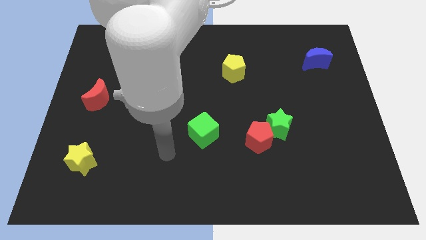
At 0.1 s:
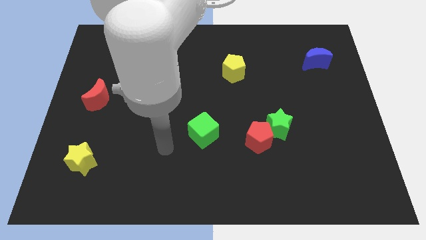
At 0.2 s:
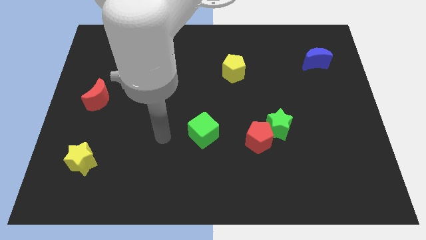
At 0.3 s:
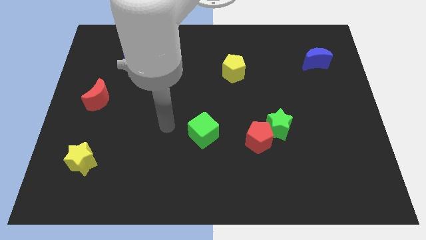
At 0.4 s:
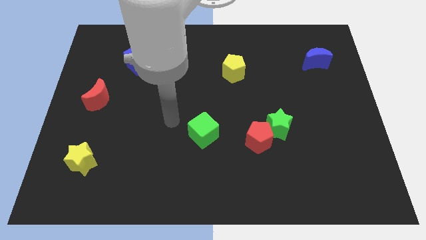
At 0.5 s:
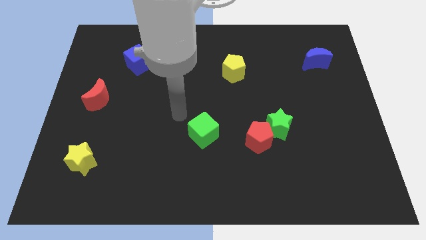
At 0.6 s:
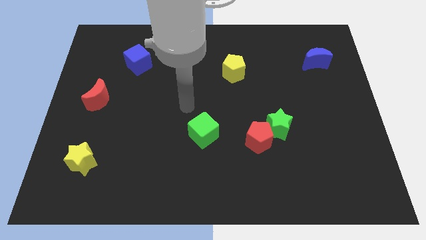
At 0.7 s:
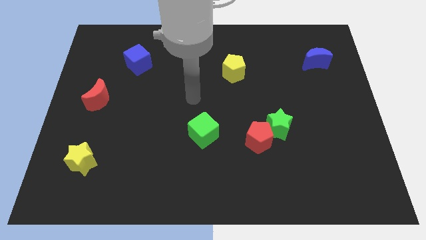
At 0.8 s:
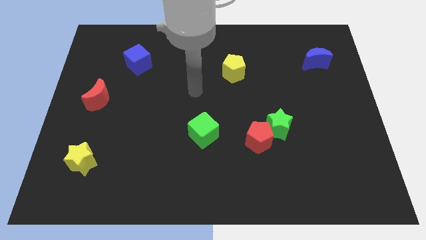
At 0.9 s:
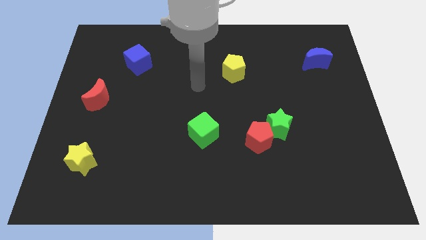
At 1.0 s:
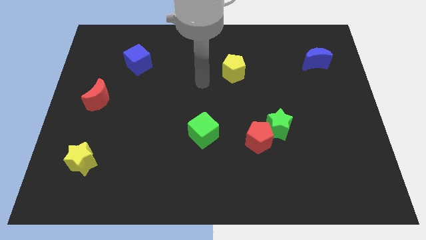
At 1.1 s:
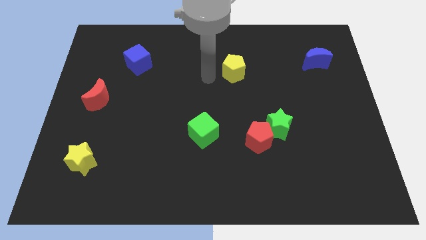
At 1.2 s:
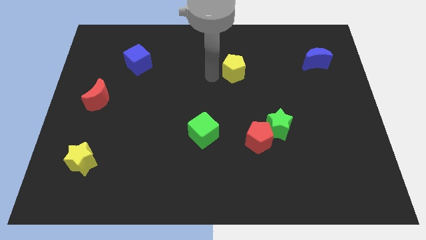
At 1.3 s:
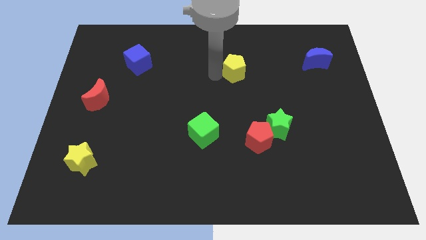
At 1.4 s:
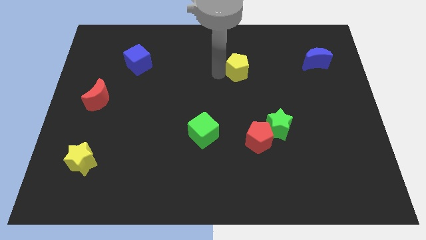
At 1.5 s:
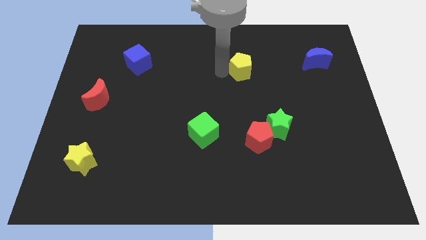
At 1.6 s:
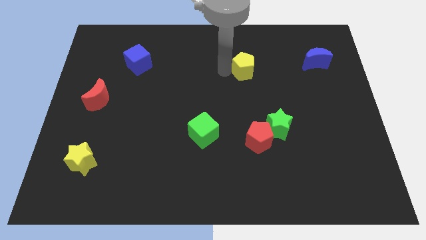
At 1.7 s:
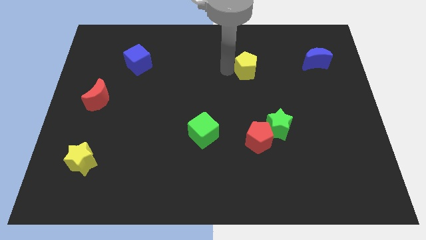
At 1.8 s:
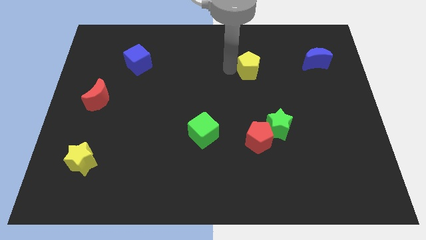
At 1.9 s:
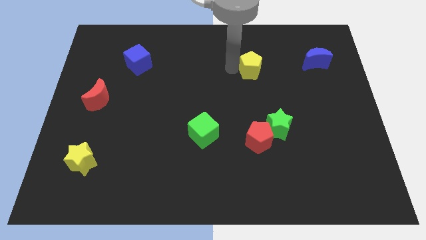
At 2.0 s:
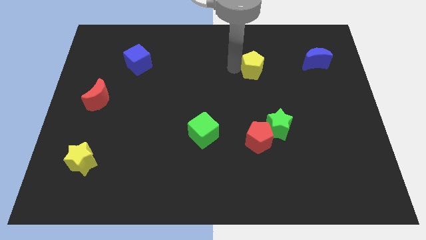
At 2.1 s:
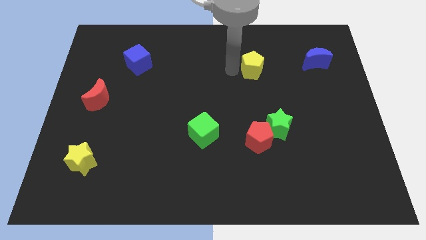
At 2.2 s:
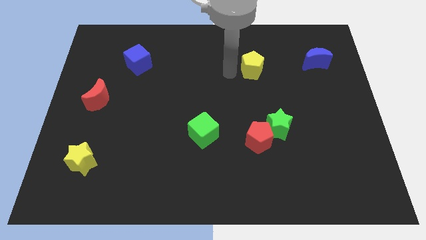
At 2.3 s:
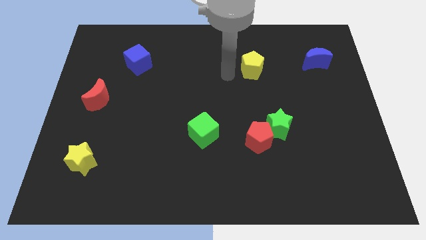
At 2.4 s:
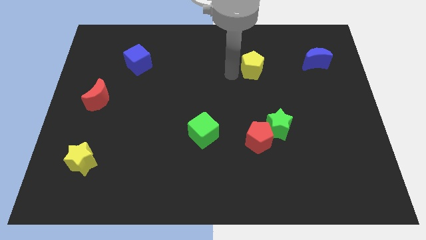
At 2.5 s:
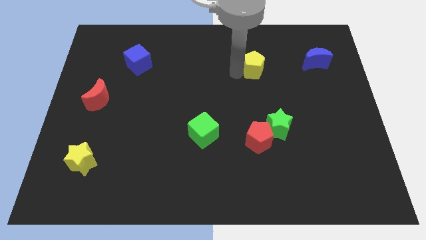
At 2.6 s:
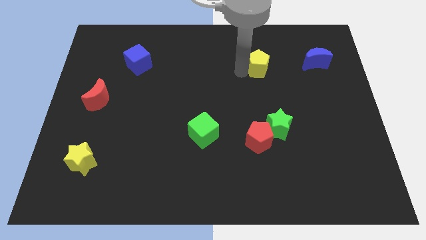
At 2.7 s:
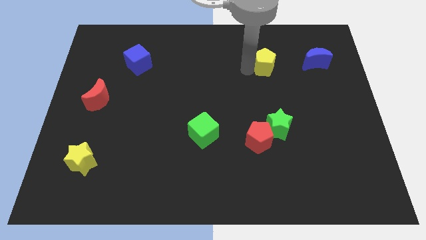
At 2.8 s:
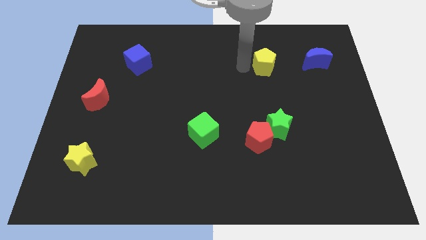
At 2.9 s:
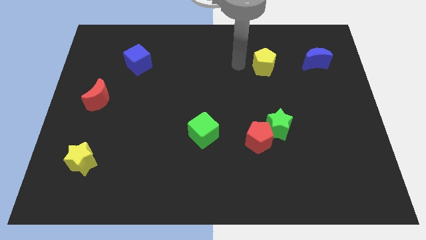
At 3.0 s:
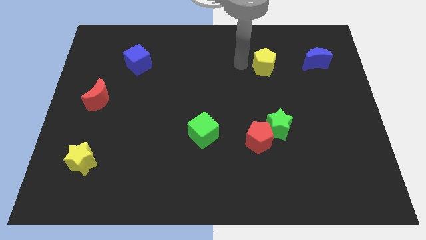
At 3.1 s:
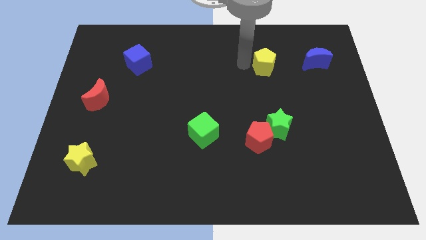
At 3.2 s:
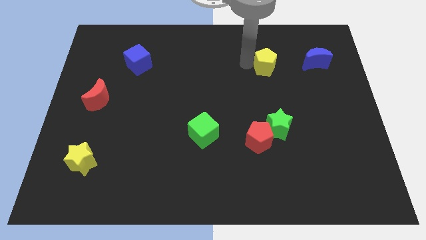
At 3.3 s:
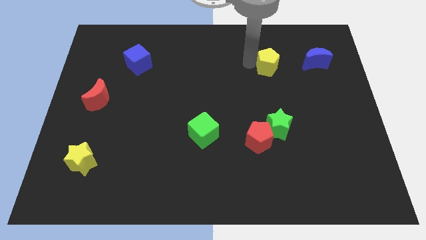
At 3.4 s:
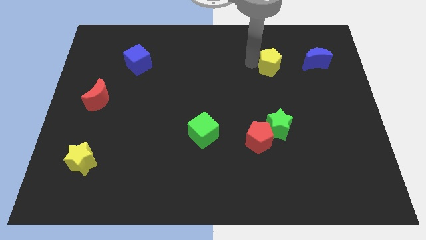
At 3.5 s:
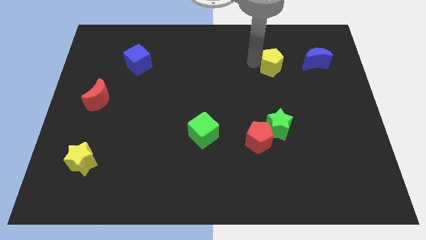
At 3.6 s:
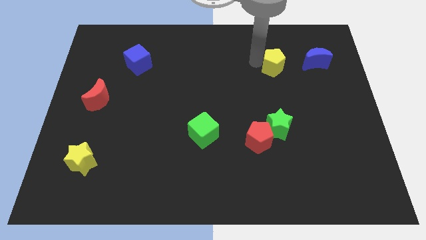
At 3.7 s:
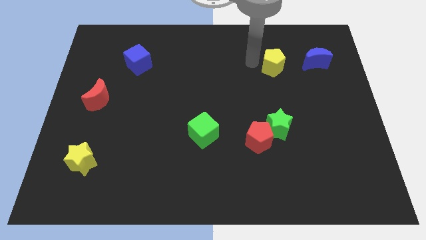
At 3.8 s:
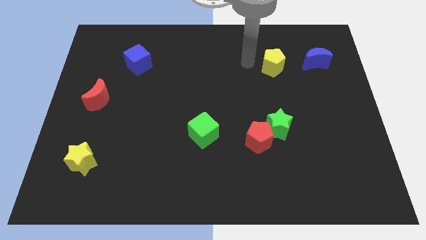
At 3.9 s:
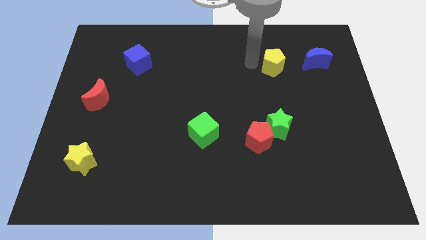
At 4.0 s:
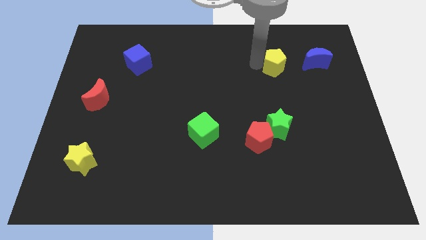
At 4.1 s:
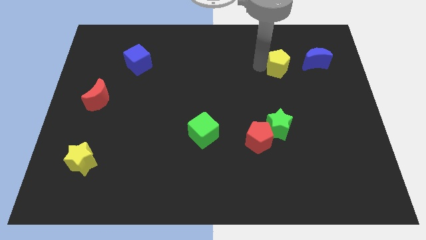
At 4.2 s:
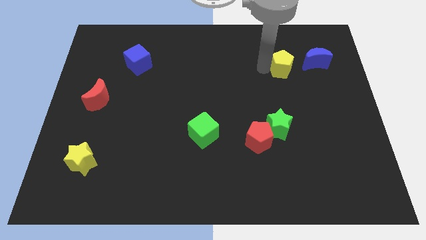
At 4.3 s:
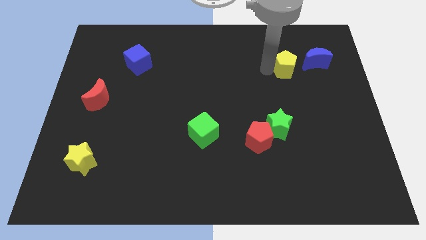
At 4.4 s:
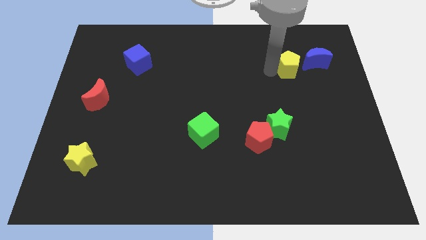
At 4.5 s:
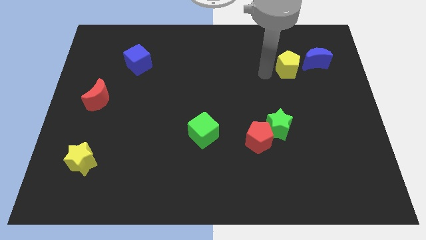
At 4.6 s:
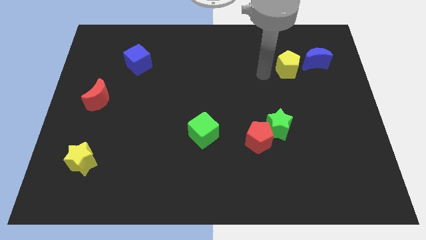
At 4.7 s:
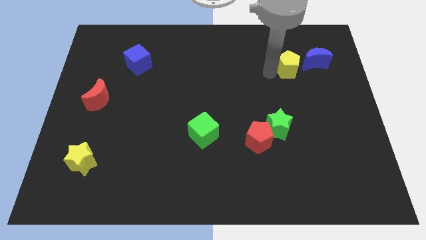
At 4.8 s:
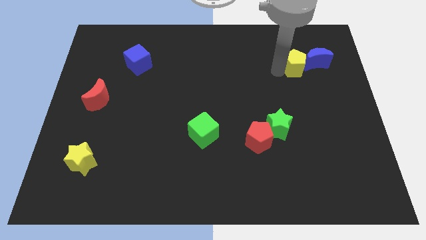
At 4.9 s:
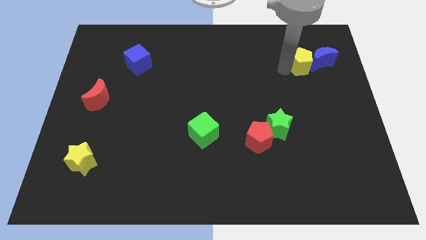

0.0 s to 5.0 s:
move the yellow pentagon towards the blue moon

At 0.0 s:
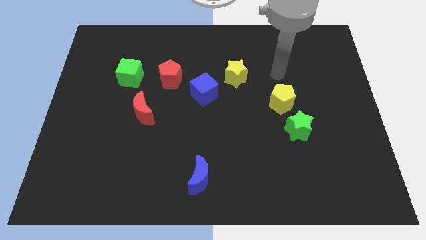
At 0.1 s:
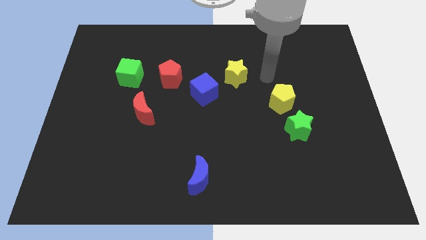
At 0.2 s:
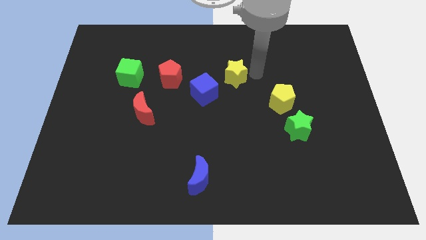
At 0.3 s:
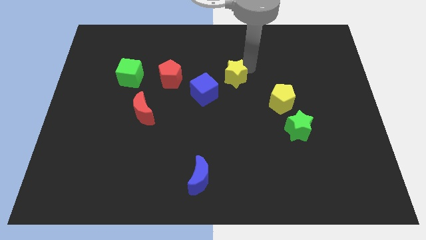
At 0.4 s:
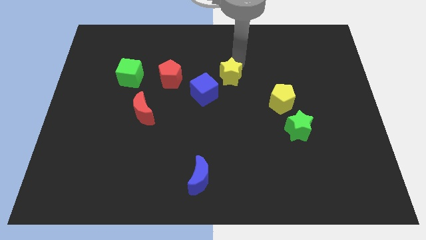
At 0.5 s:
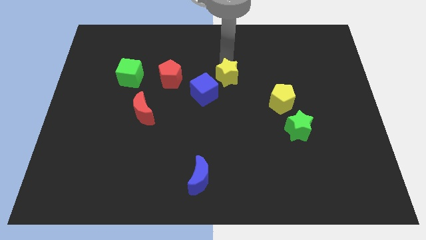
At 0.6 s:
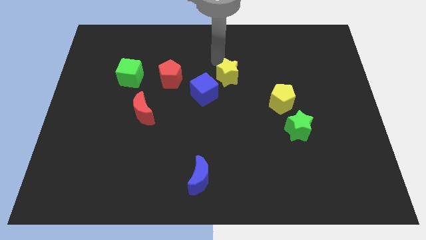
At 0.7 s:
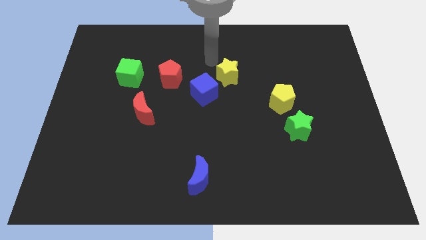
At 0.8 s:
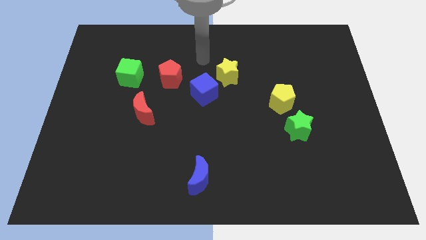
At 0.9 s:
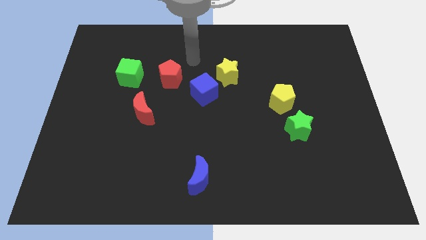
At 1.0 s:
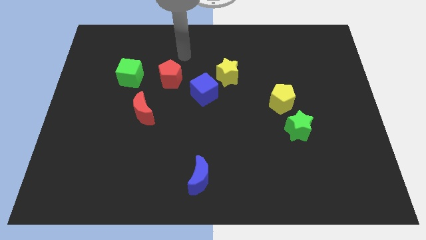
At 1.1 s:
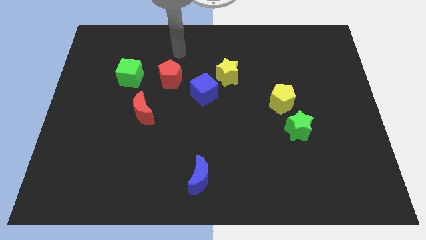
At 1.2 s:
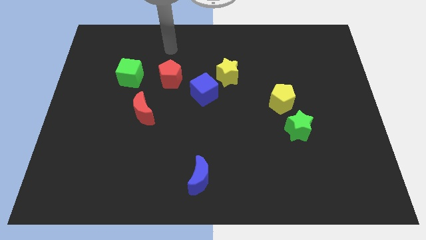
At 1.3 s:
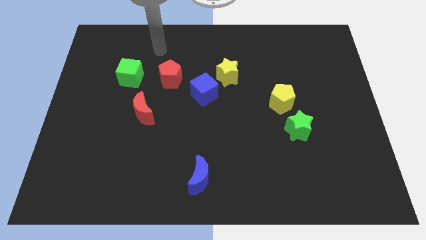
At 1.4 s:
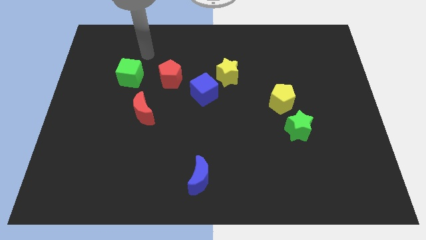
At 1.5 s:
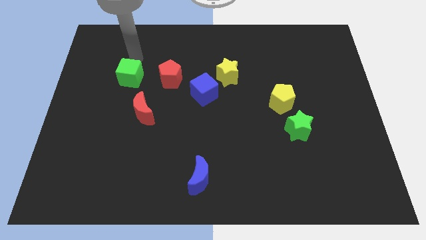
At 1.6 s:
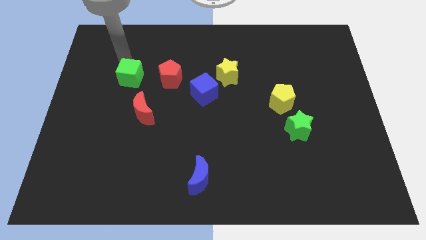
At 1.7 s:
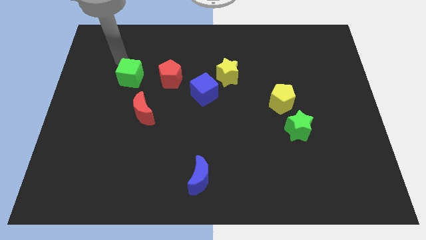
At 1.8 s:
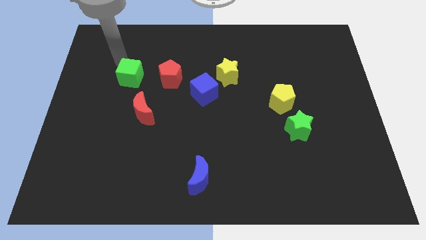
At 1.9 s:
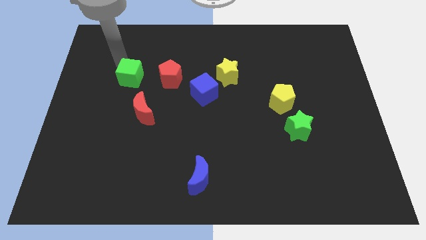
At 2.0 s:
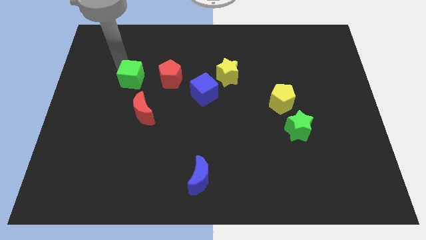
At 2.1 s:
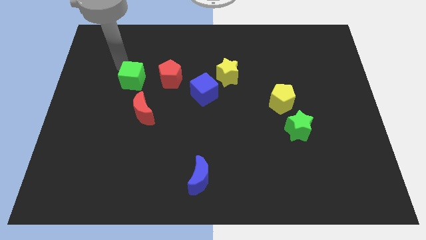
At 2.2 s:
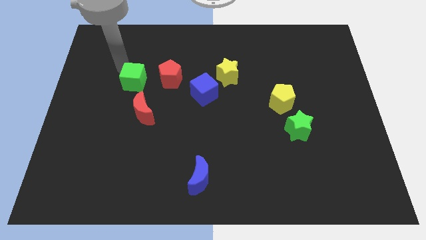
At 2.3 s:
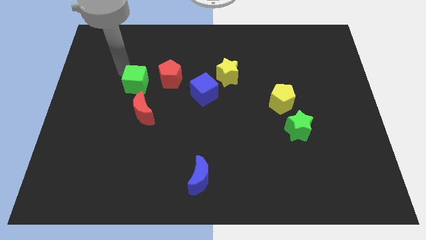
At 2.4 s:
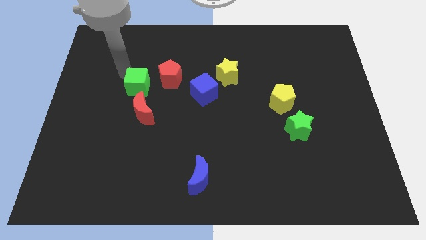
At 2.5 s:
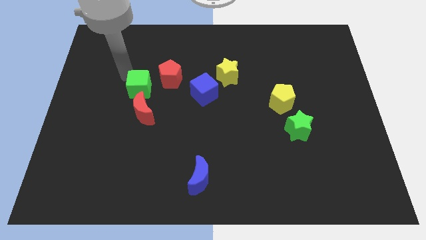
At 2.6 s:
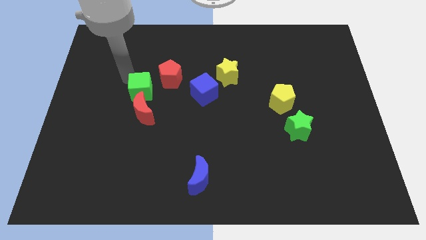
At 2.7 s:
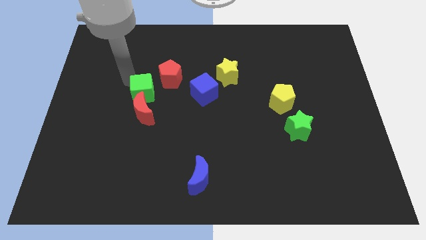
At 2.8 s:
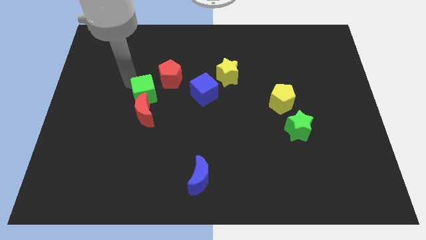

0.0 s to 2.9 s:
move the green cube close to the red moon
